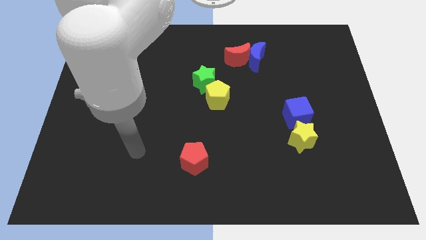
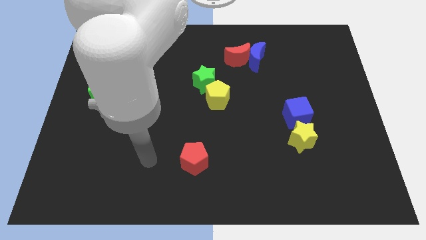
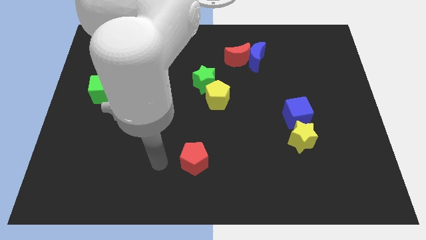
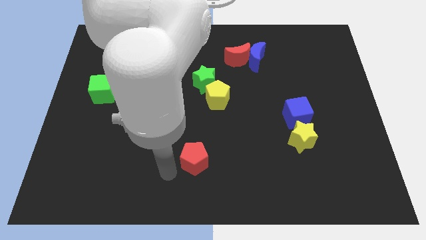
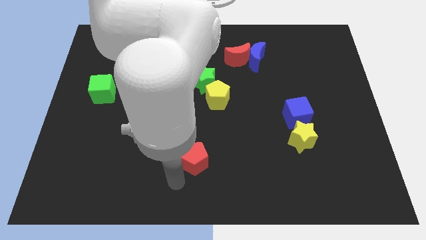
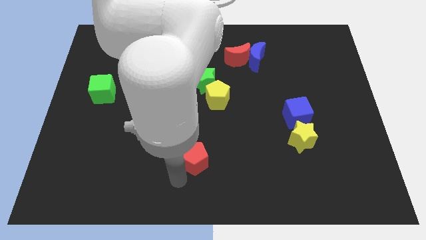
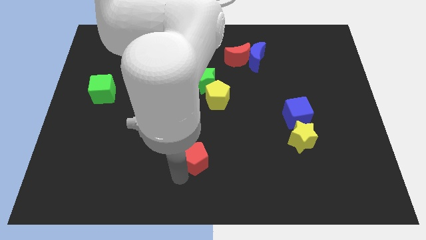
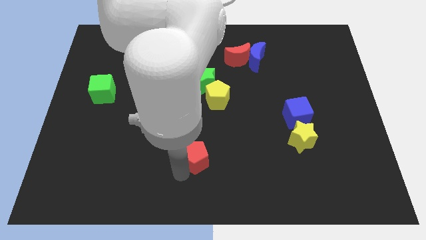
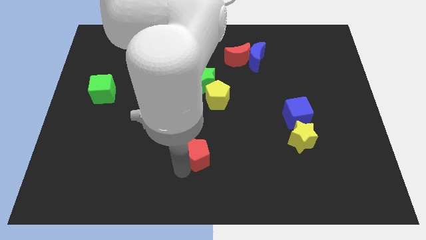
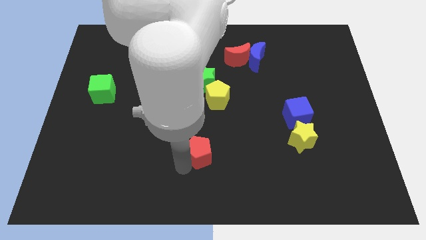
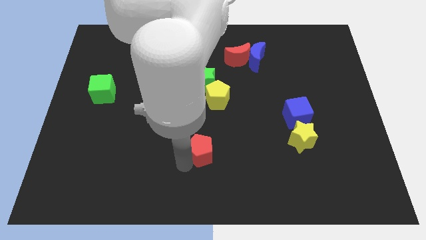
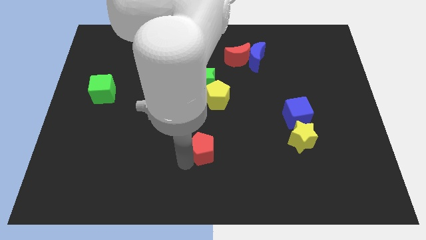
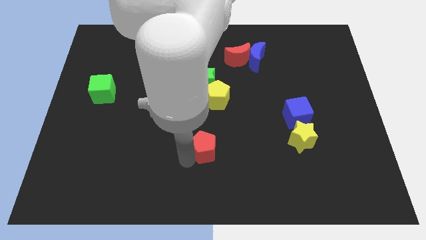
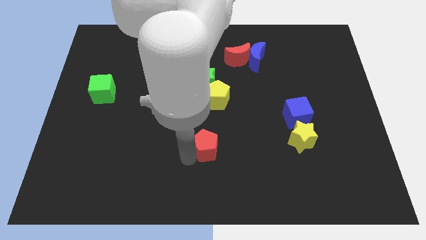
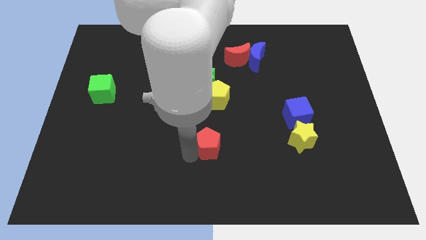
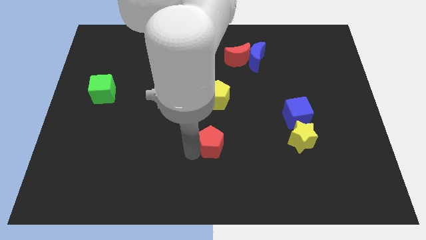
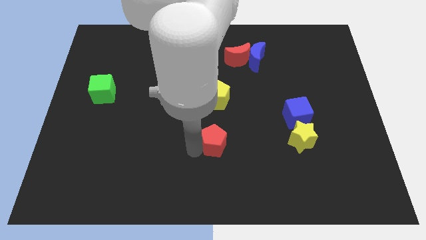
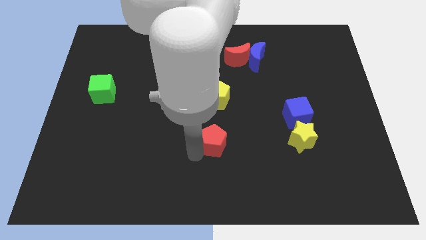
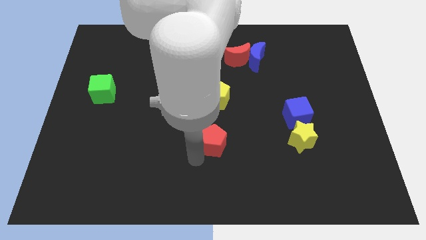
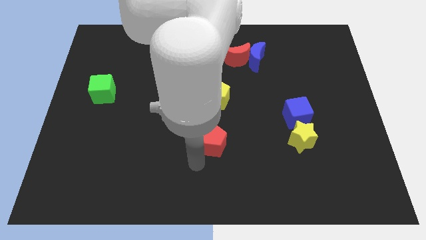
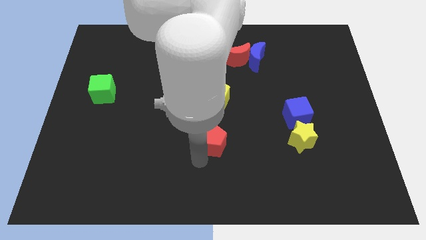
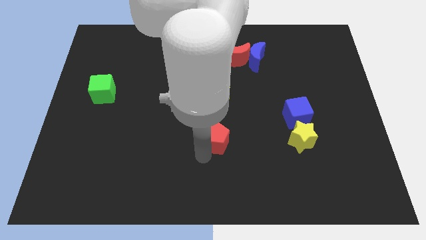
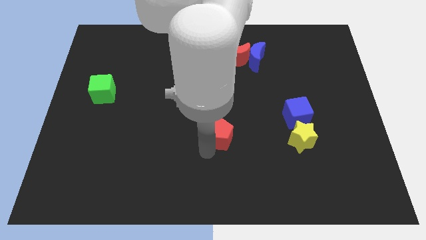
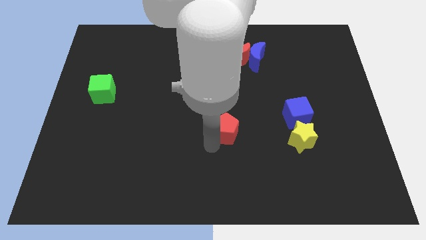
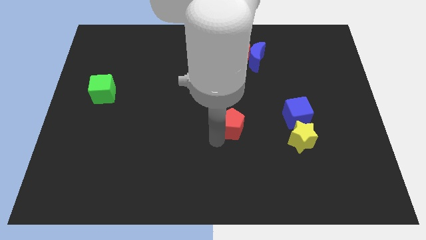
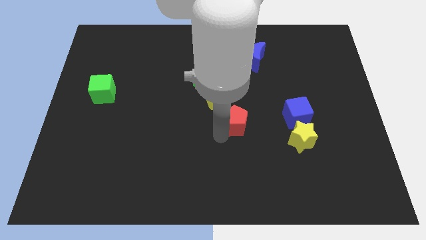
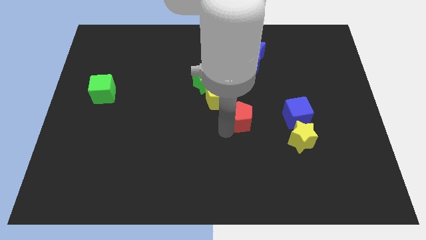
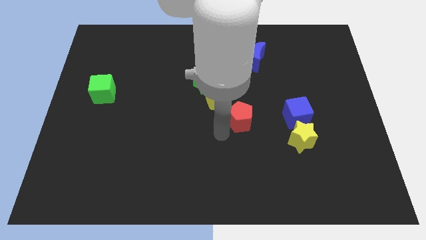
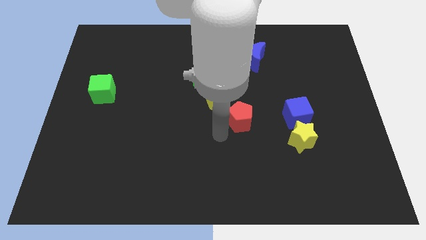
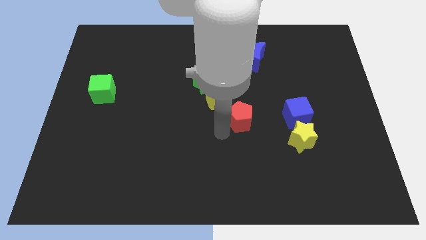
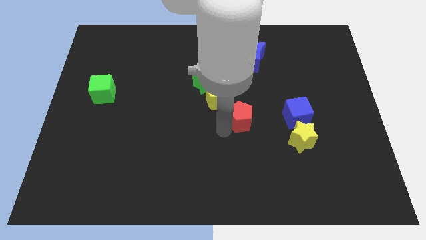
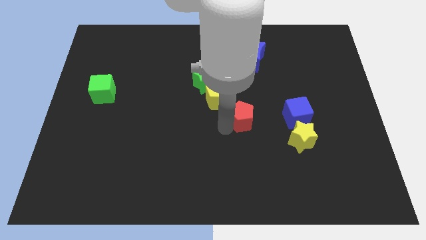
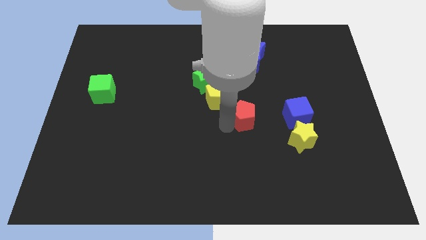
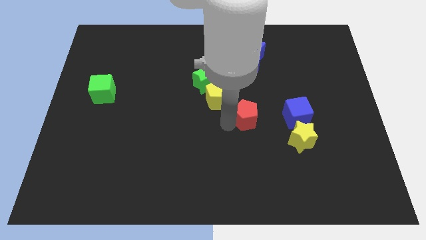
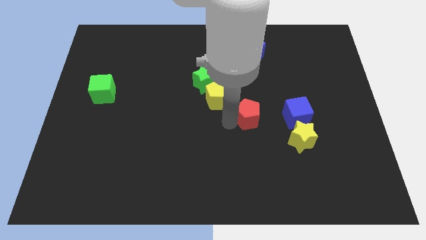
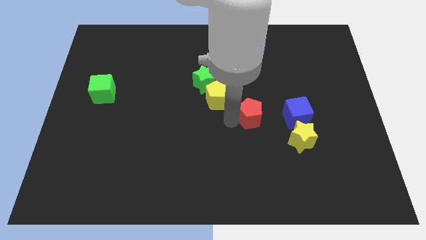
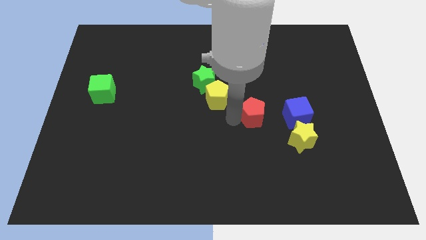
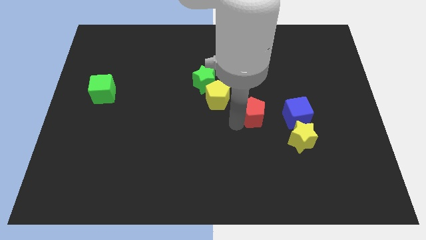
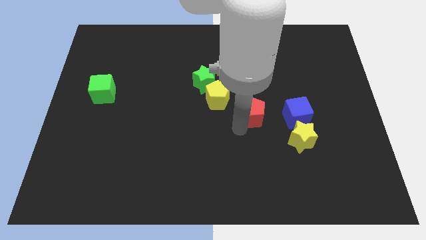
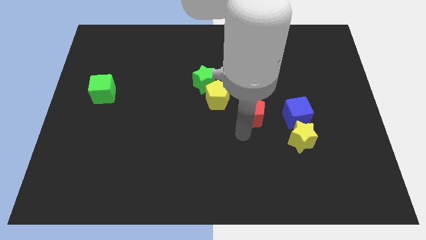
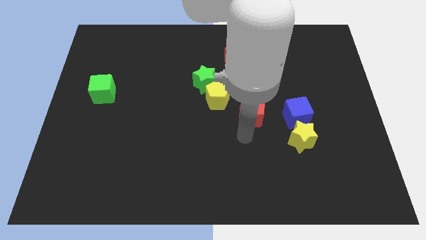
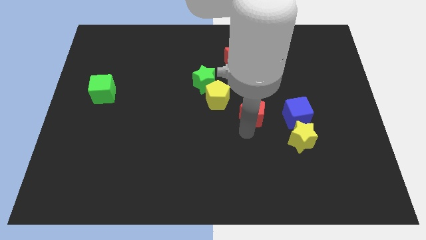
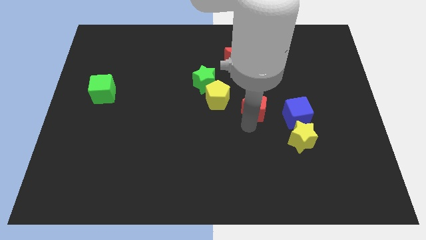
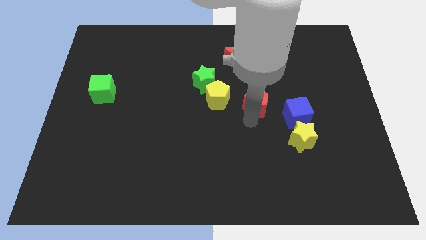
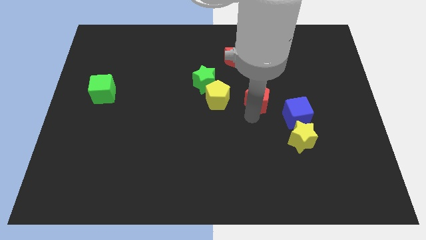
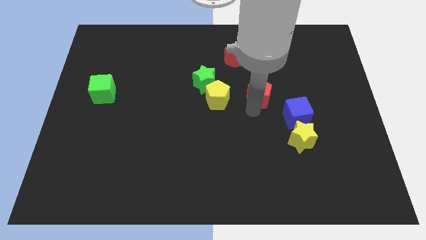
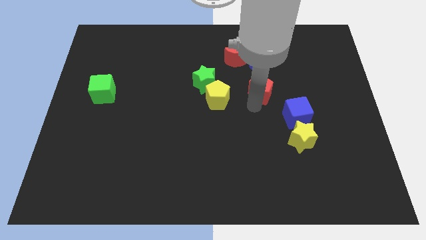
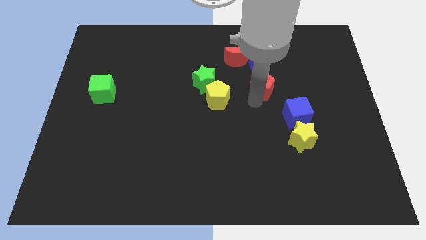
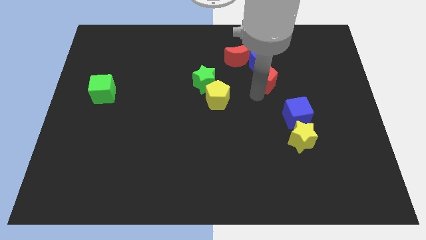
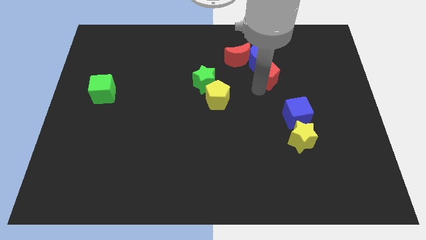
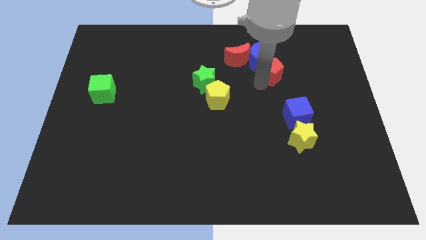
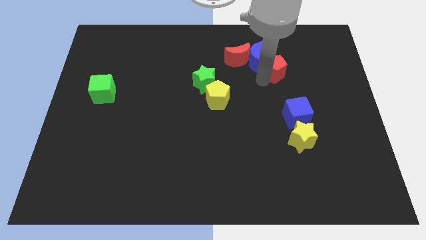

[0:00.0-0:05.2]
slide the red pentagon just right of the blue moon

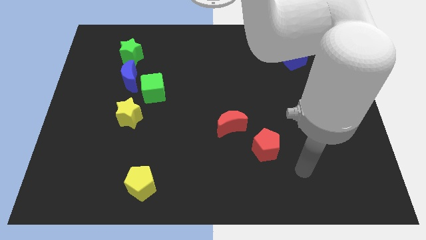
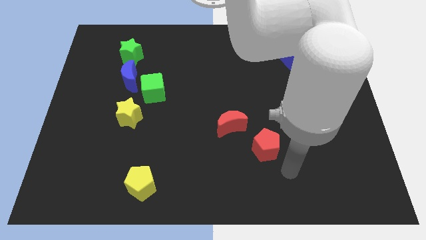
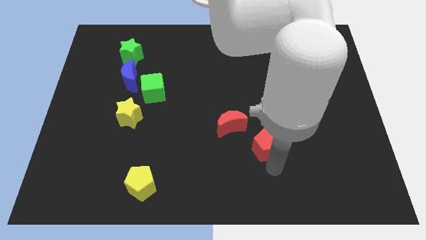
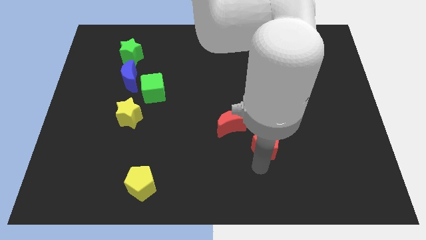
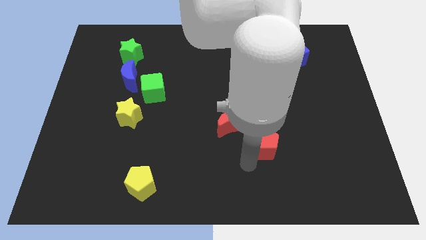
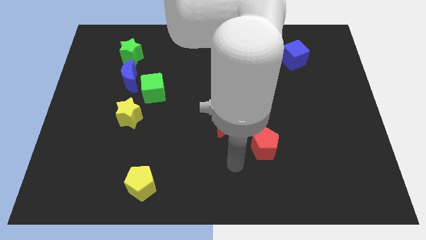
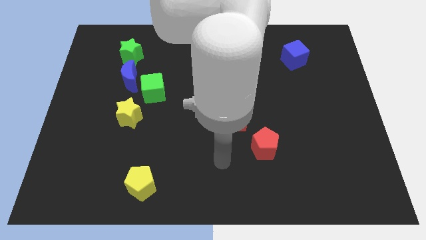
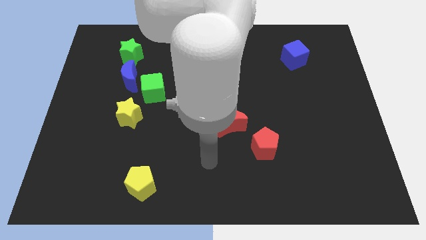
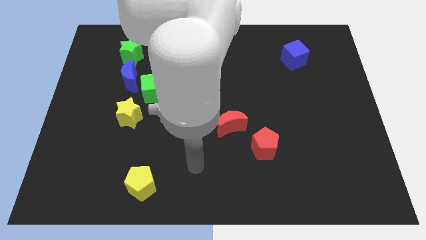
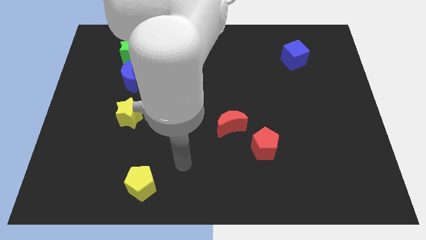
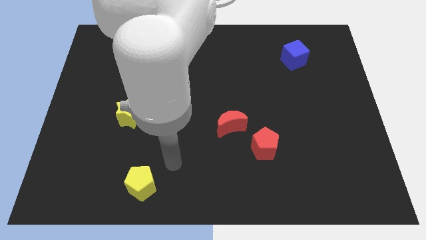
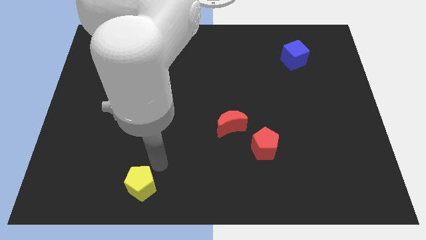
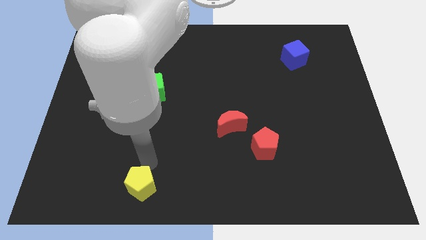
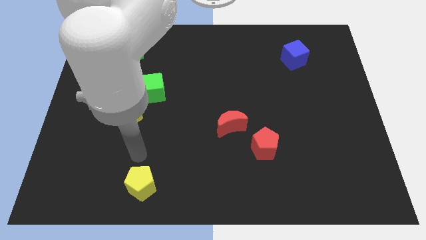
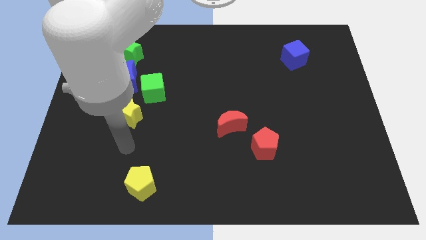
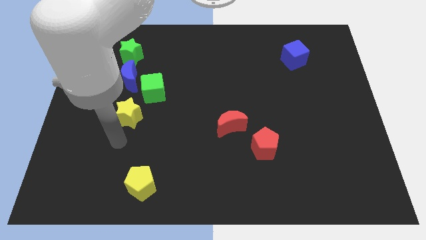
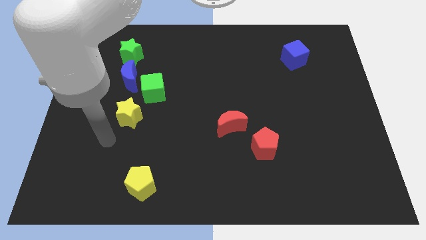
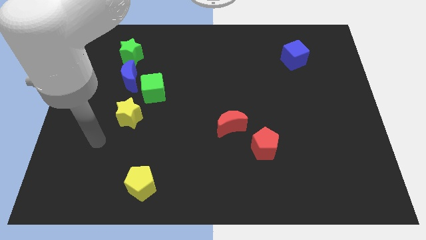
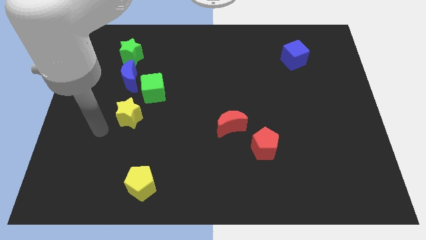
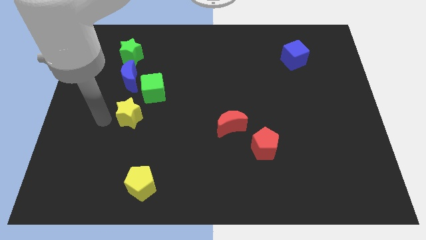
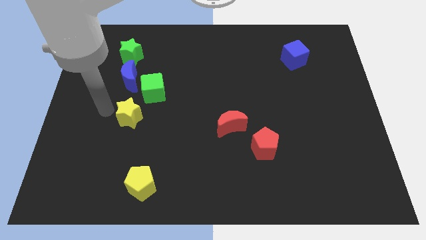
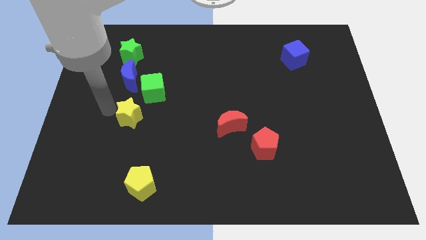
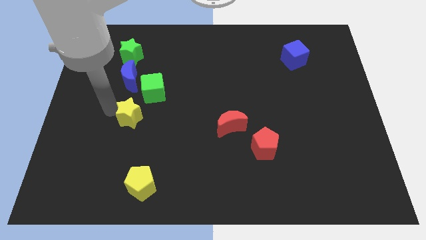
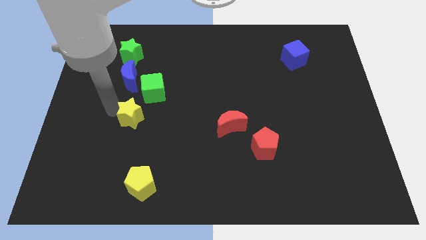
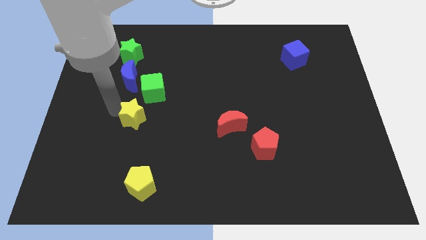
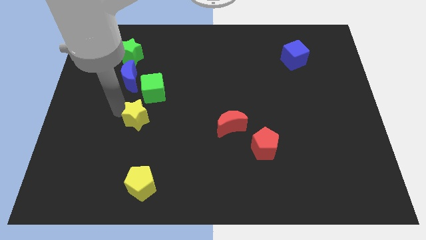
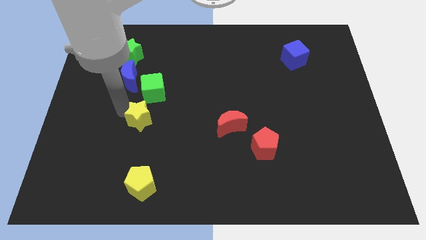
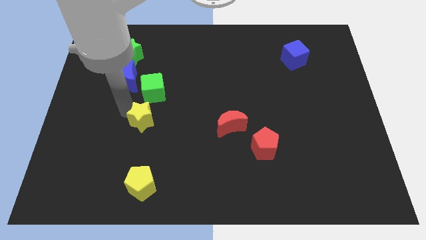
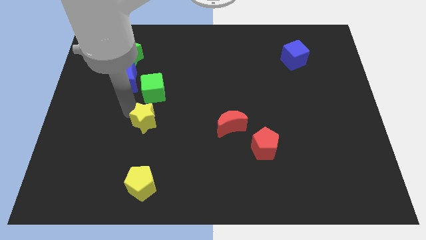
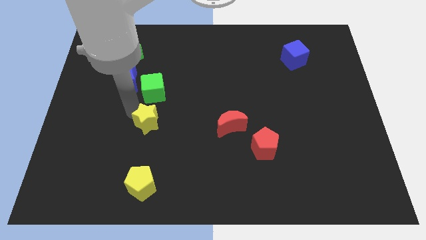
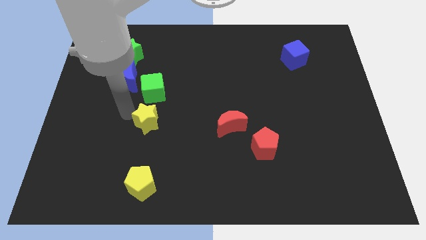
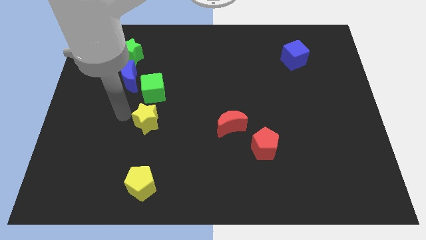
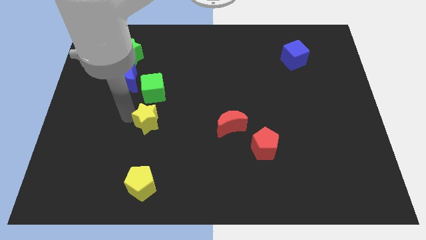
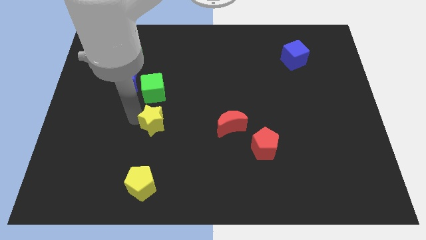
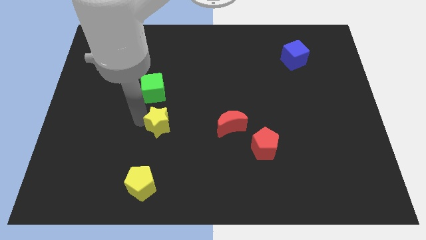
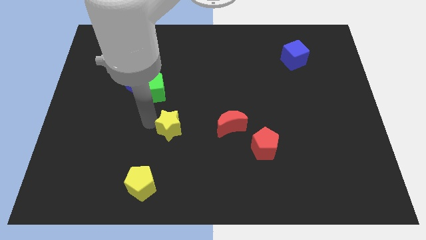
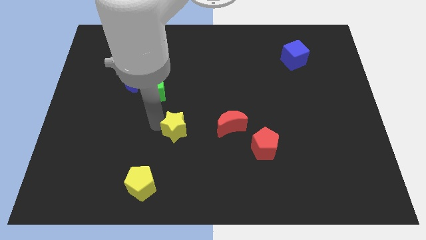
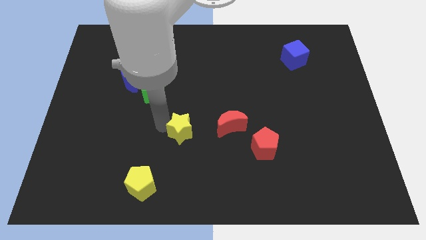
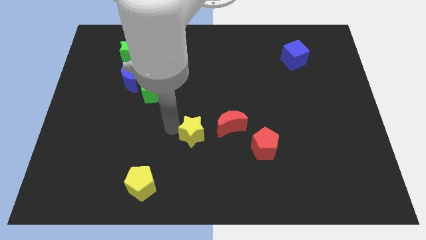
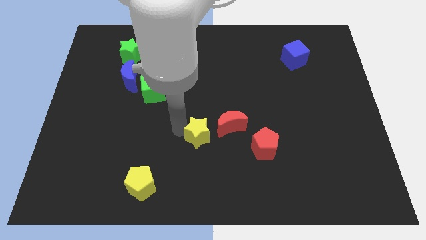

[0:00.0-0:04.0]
slide the yellow star to the left of the red pentagon
